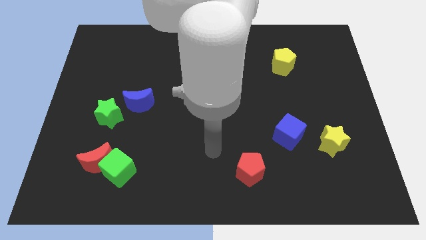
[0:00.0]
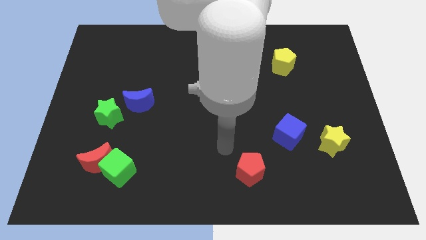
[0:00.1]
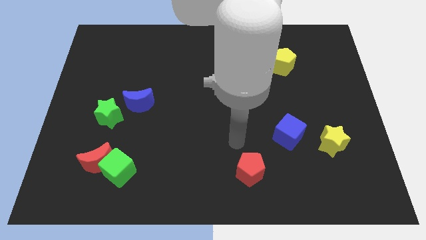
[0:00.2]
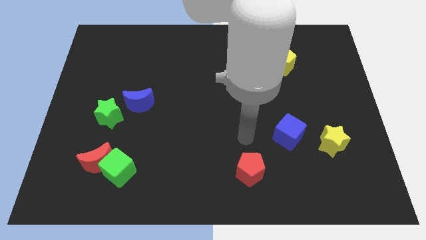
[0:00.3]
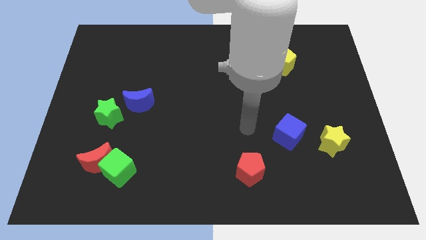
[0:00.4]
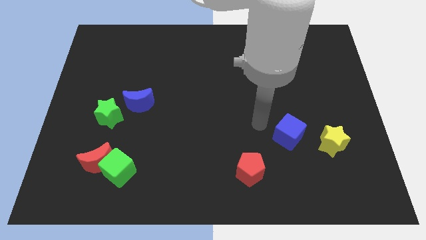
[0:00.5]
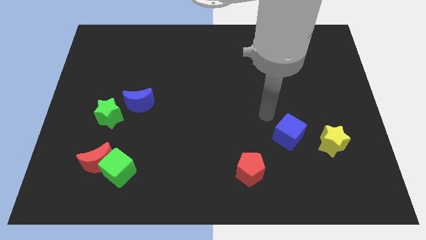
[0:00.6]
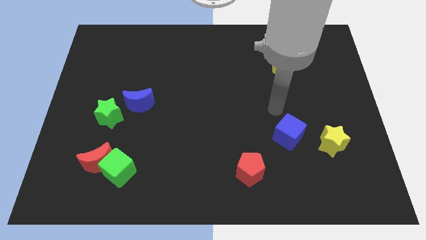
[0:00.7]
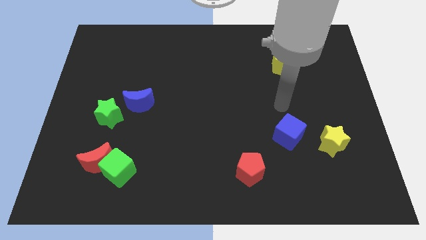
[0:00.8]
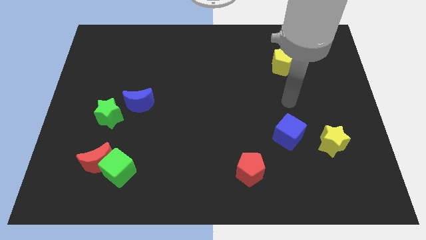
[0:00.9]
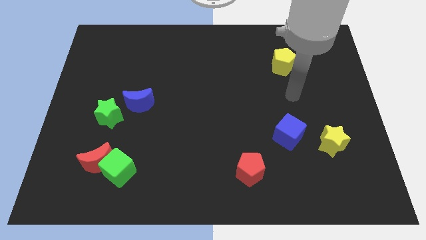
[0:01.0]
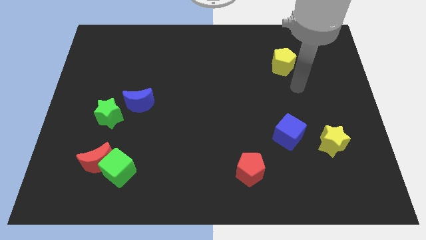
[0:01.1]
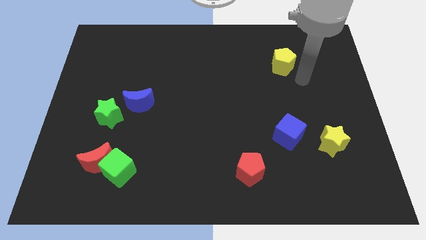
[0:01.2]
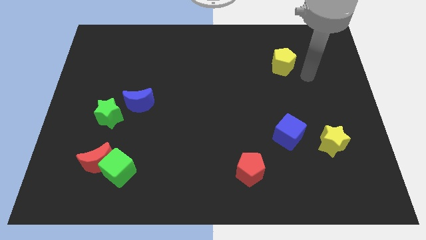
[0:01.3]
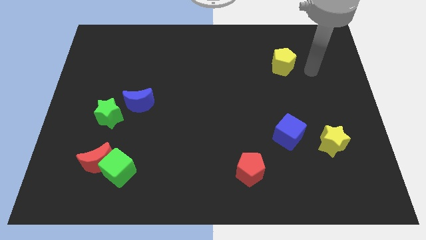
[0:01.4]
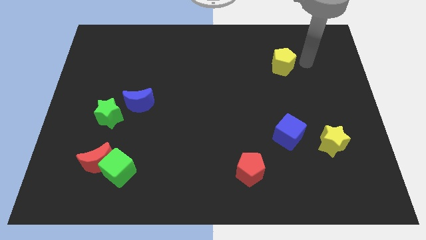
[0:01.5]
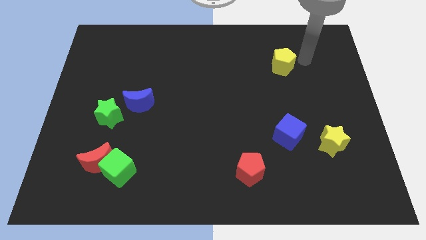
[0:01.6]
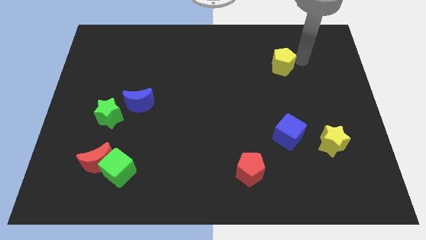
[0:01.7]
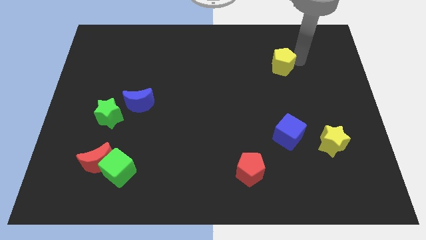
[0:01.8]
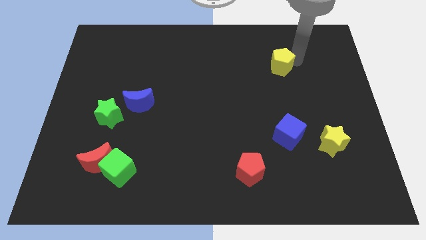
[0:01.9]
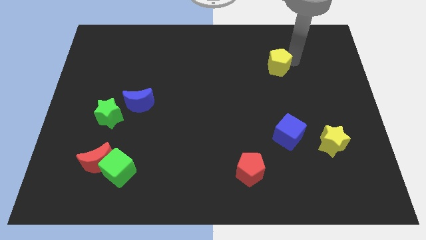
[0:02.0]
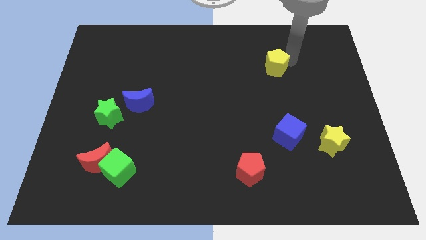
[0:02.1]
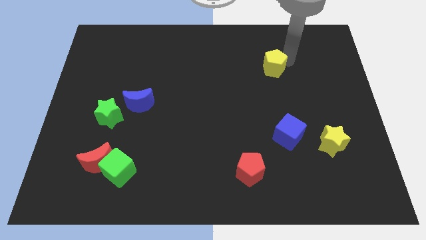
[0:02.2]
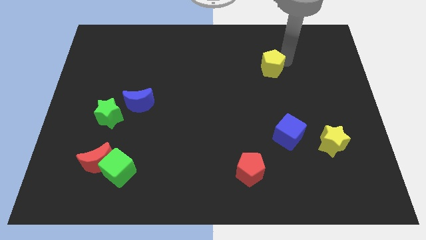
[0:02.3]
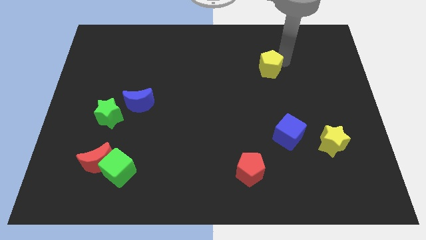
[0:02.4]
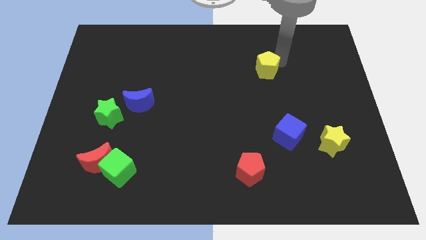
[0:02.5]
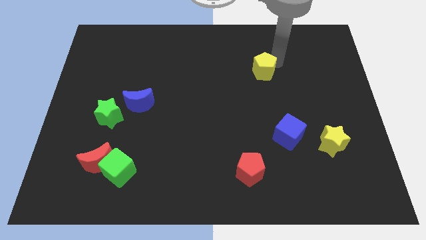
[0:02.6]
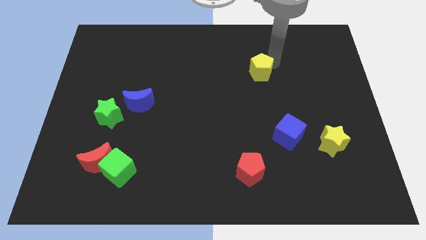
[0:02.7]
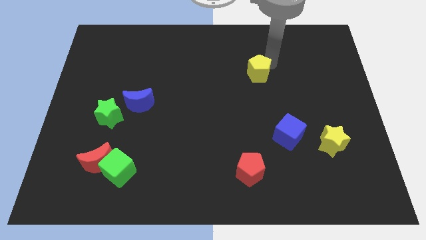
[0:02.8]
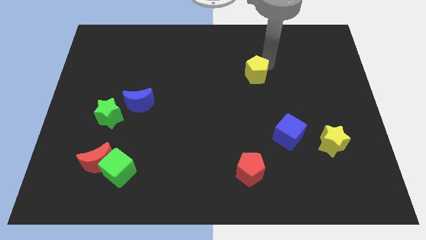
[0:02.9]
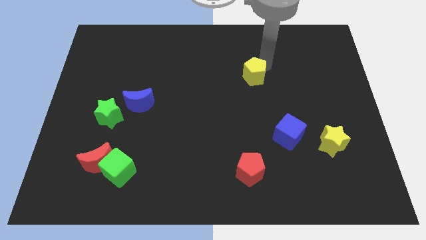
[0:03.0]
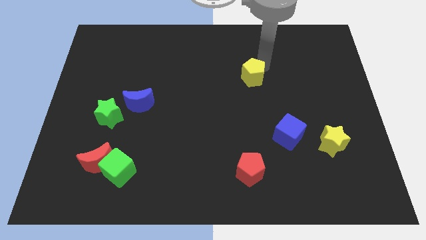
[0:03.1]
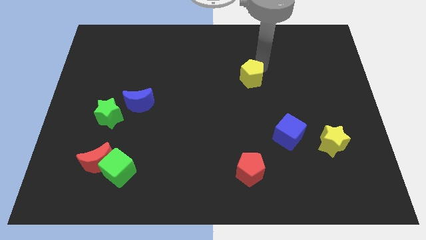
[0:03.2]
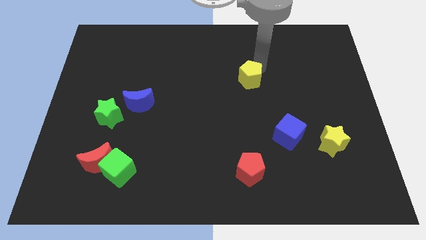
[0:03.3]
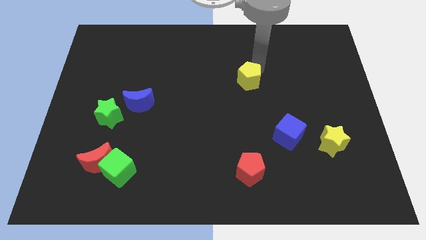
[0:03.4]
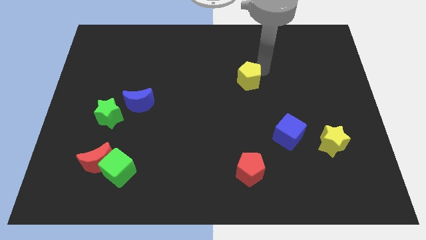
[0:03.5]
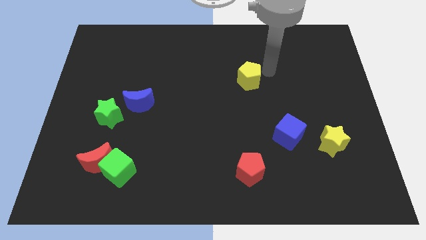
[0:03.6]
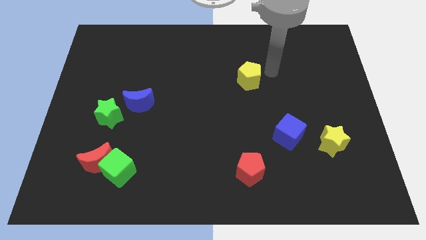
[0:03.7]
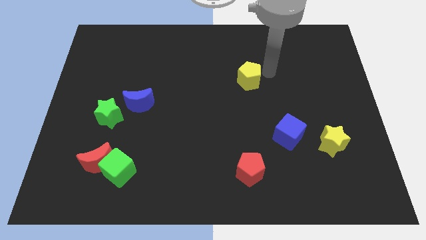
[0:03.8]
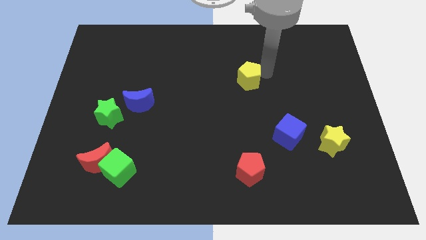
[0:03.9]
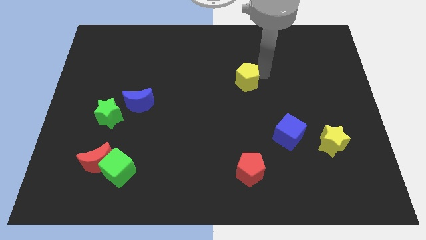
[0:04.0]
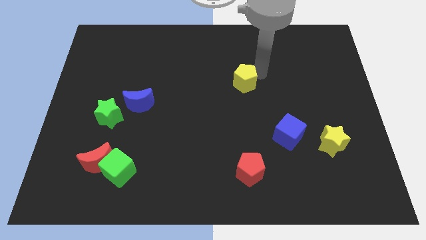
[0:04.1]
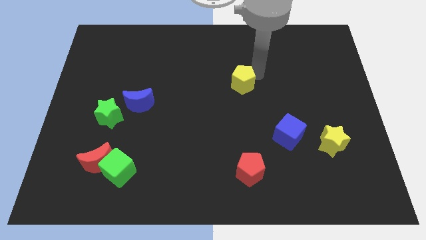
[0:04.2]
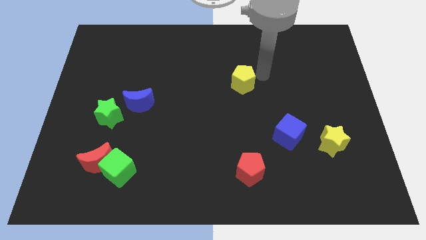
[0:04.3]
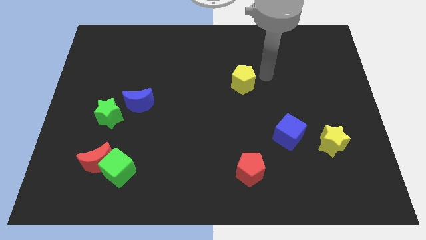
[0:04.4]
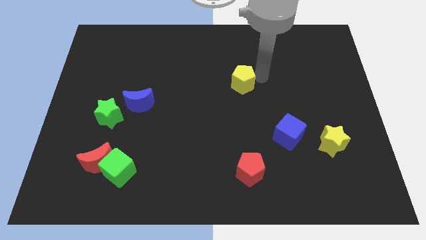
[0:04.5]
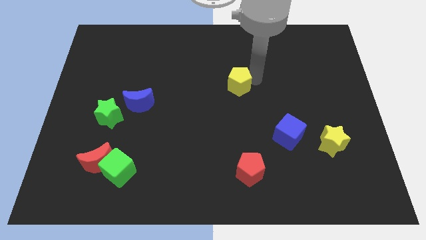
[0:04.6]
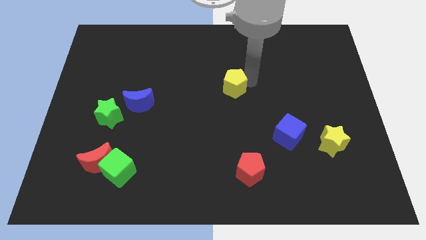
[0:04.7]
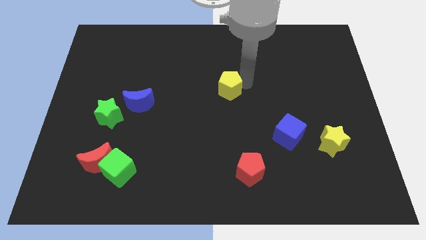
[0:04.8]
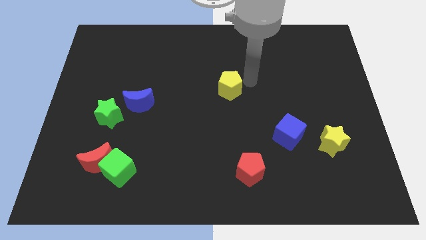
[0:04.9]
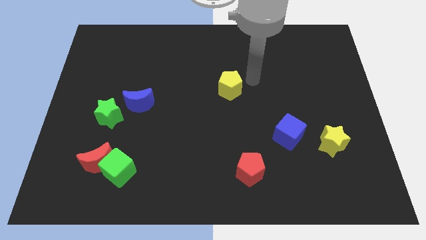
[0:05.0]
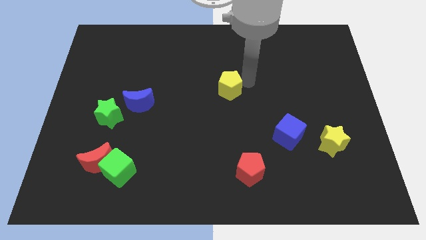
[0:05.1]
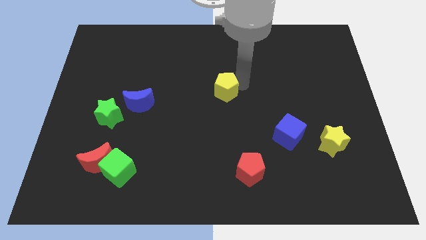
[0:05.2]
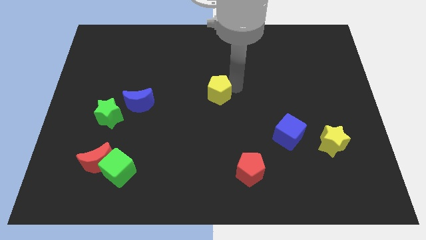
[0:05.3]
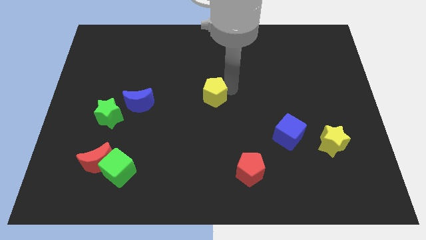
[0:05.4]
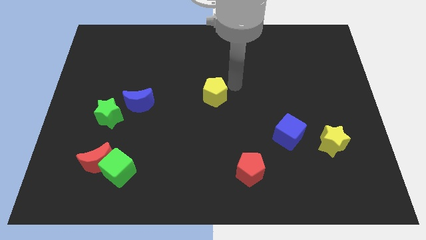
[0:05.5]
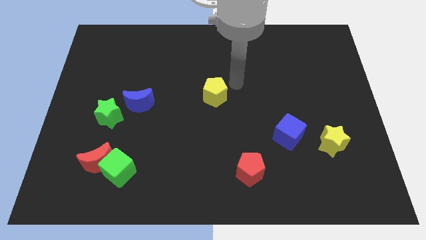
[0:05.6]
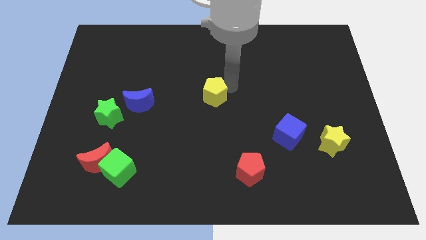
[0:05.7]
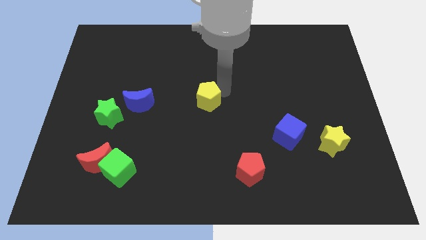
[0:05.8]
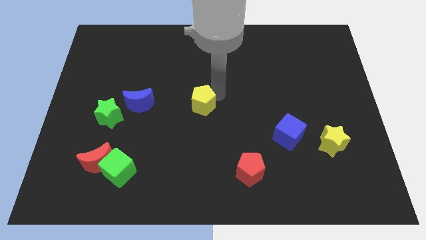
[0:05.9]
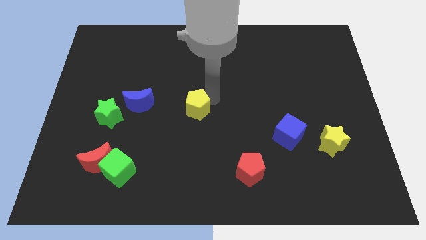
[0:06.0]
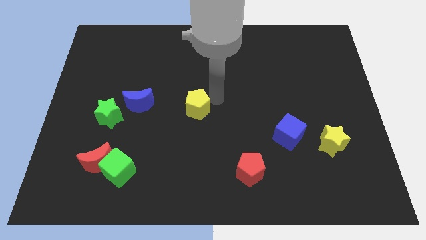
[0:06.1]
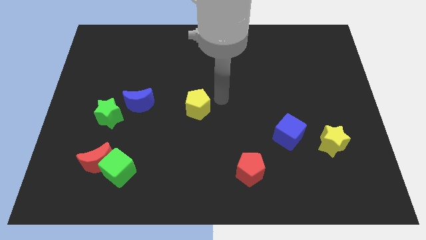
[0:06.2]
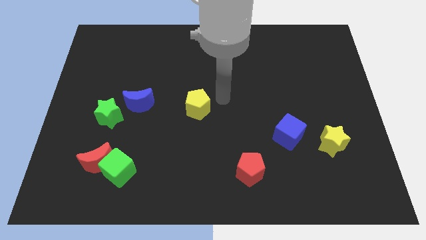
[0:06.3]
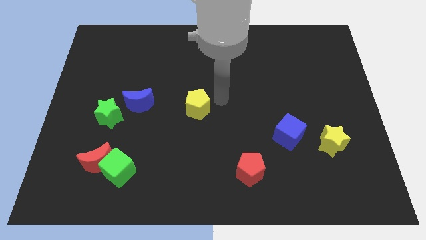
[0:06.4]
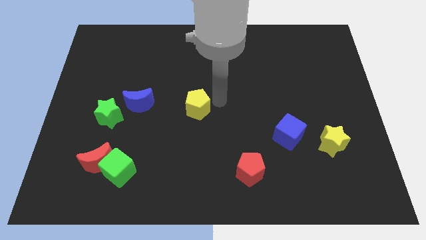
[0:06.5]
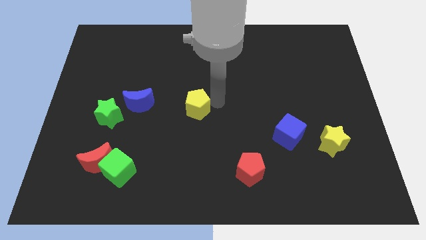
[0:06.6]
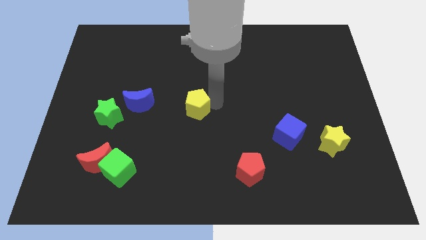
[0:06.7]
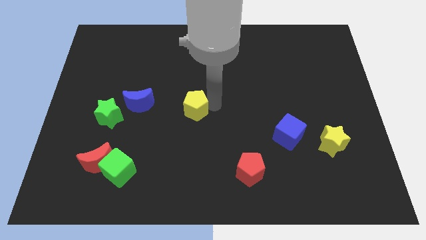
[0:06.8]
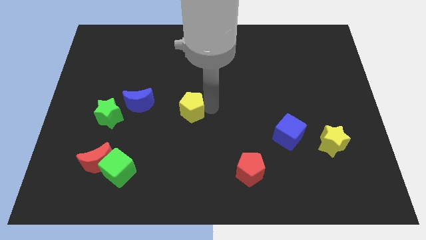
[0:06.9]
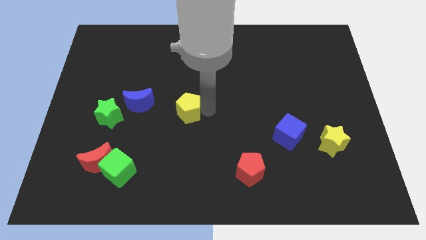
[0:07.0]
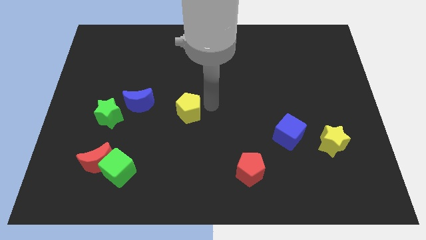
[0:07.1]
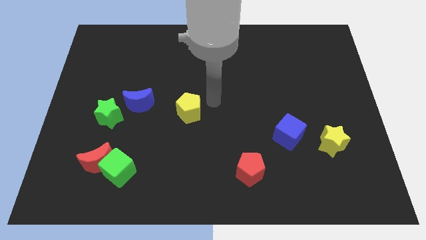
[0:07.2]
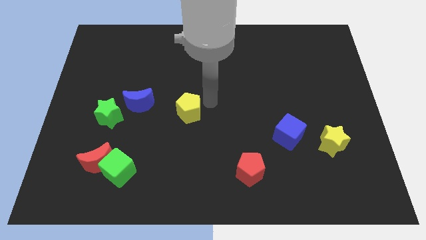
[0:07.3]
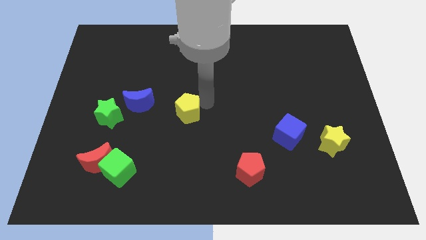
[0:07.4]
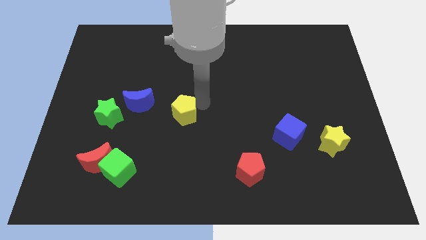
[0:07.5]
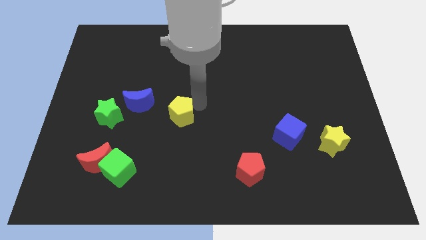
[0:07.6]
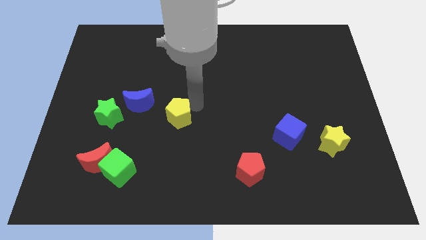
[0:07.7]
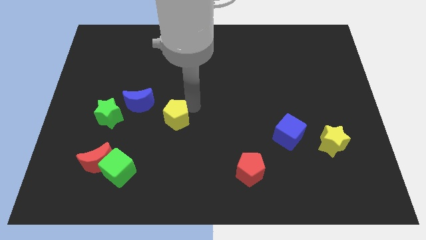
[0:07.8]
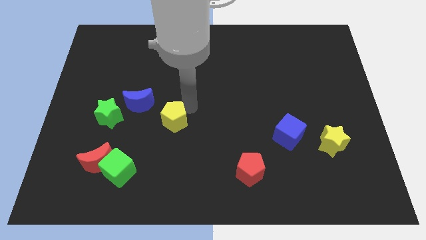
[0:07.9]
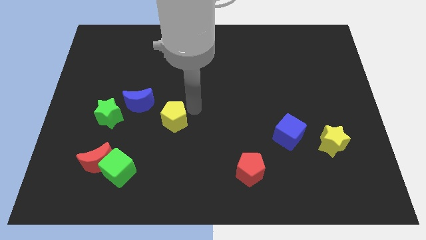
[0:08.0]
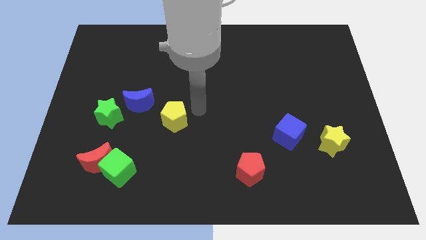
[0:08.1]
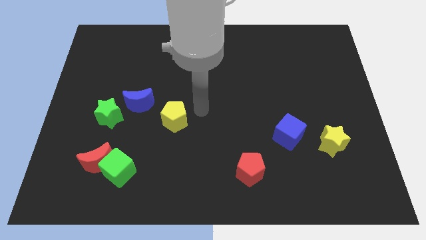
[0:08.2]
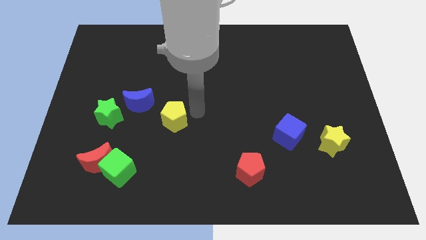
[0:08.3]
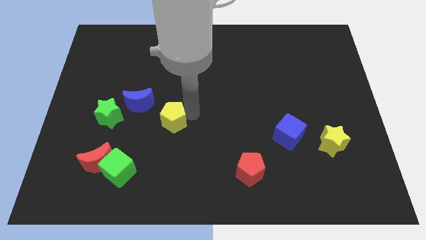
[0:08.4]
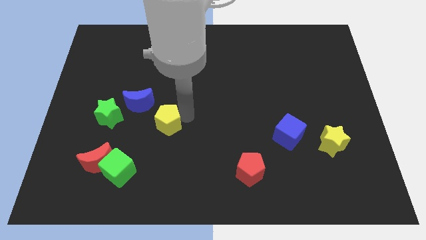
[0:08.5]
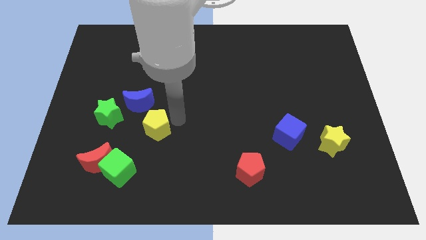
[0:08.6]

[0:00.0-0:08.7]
push the yellow pentagon to the bottom side of the blue moon
